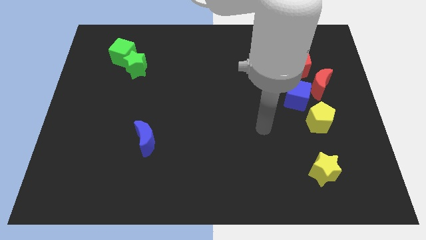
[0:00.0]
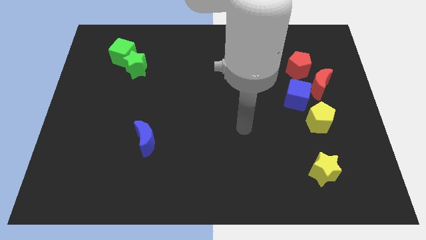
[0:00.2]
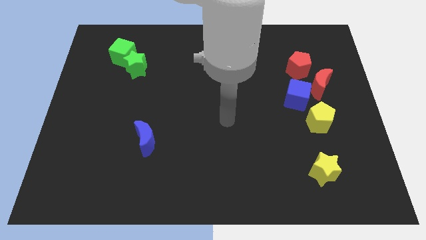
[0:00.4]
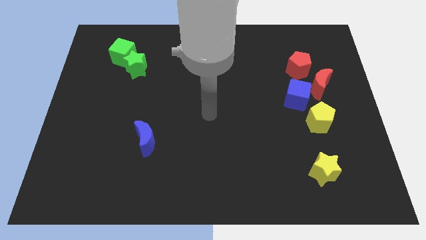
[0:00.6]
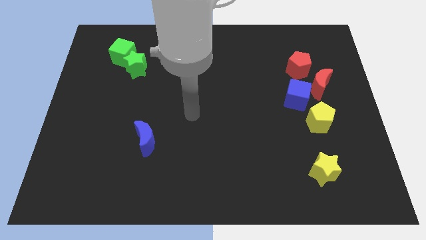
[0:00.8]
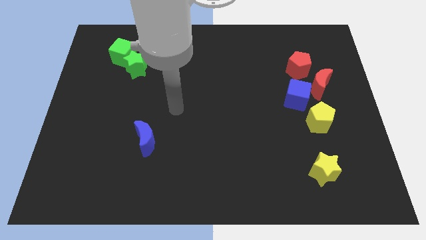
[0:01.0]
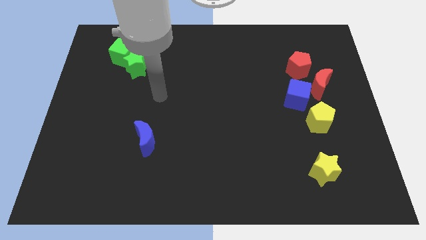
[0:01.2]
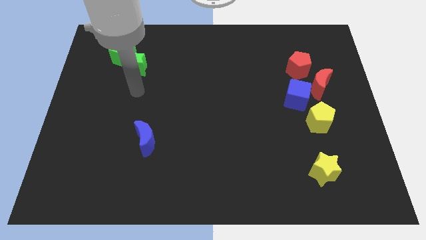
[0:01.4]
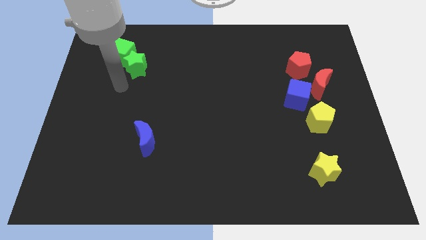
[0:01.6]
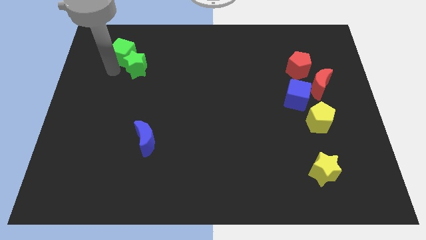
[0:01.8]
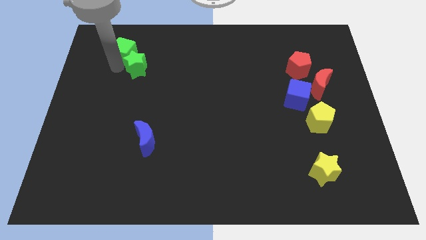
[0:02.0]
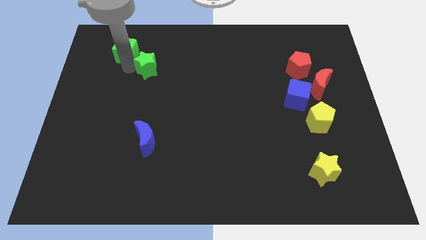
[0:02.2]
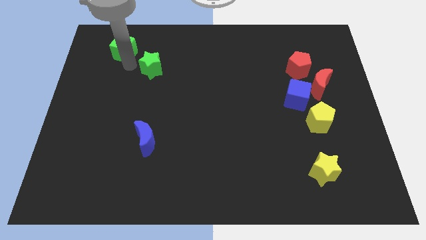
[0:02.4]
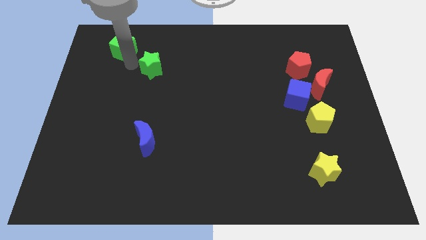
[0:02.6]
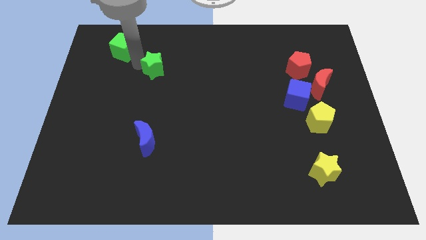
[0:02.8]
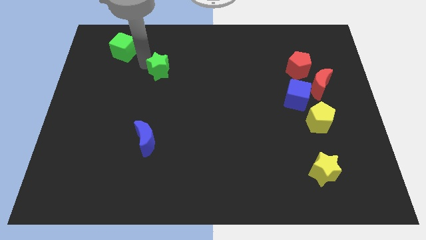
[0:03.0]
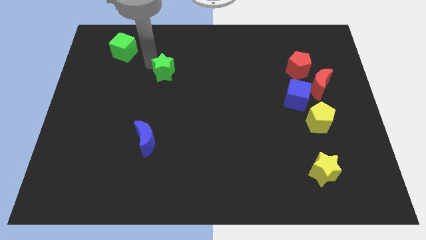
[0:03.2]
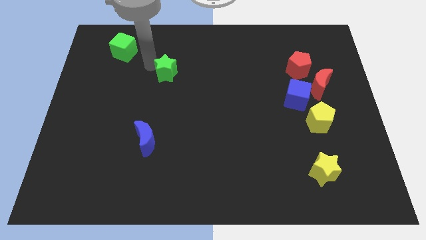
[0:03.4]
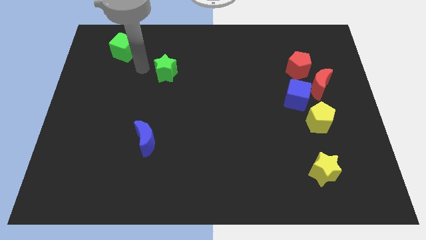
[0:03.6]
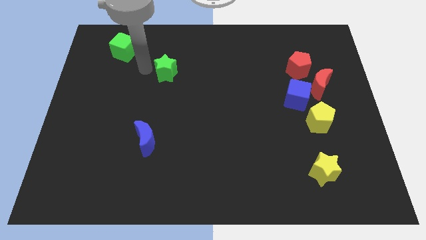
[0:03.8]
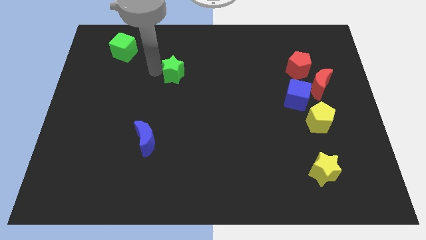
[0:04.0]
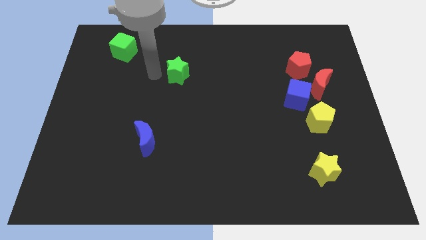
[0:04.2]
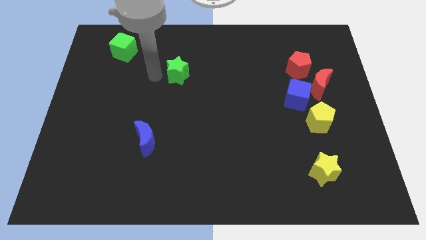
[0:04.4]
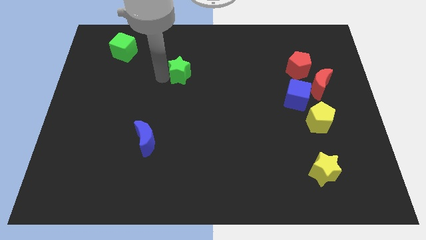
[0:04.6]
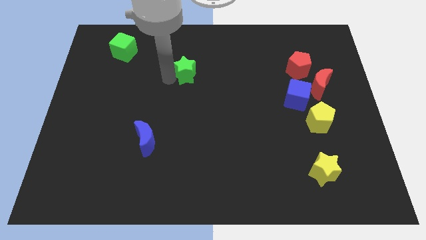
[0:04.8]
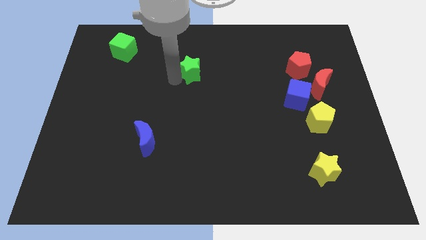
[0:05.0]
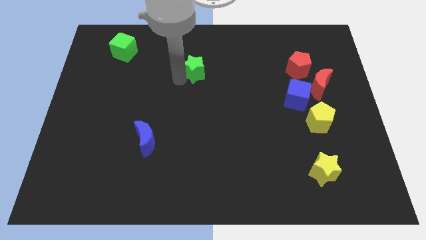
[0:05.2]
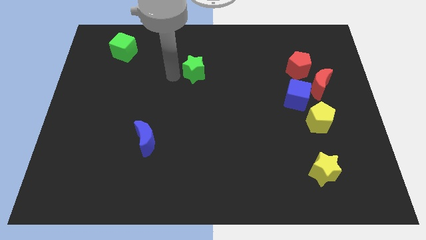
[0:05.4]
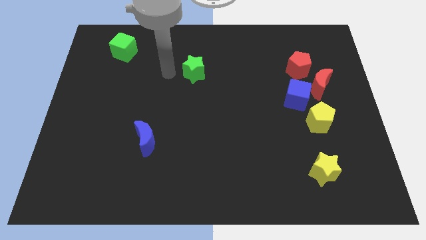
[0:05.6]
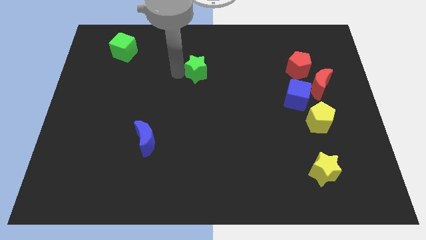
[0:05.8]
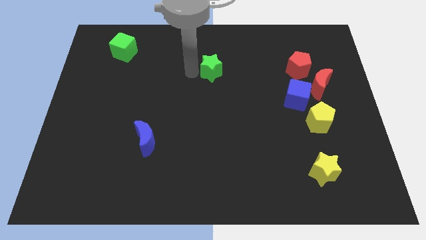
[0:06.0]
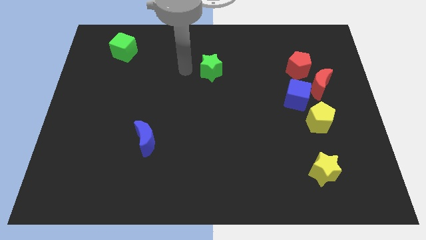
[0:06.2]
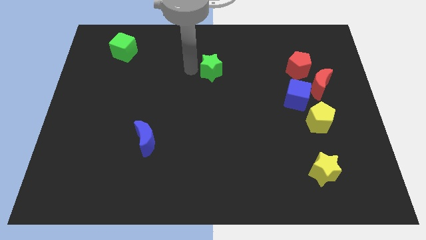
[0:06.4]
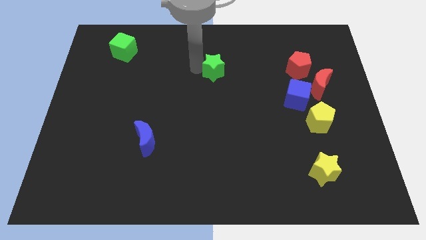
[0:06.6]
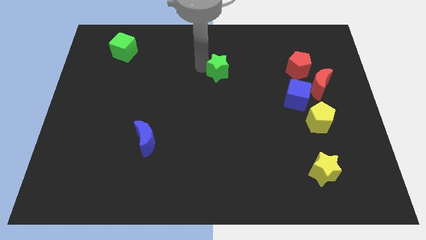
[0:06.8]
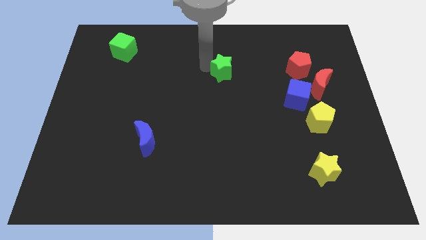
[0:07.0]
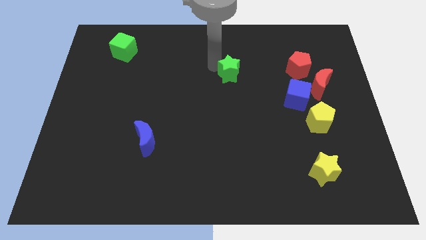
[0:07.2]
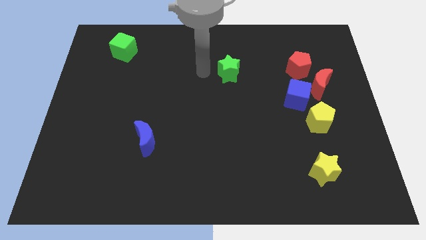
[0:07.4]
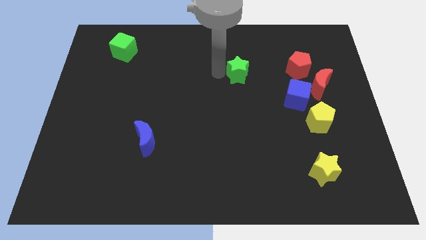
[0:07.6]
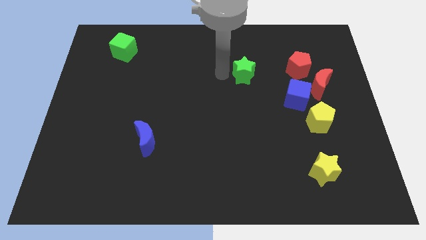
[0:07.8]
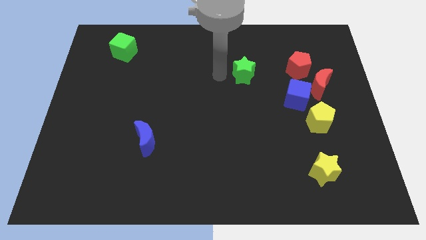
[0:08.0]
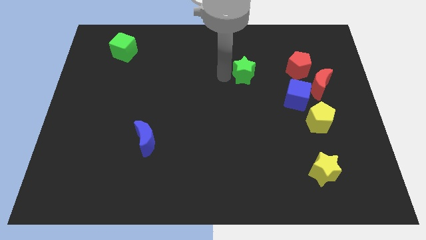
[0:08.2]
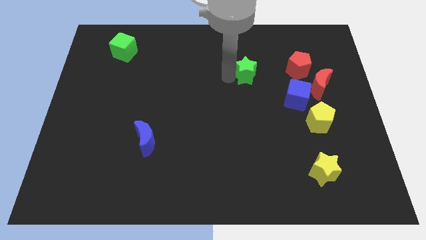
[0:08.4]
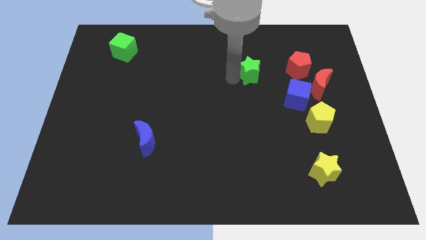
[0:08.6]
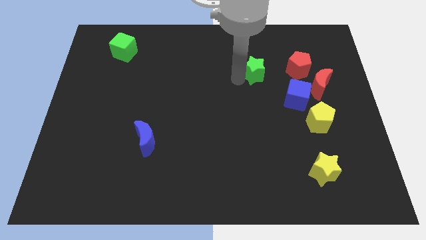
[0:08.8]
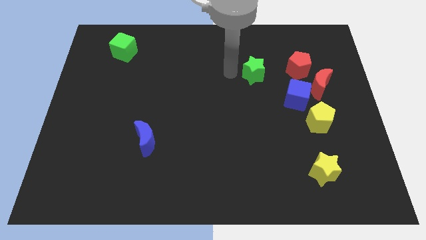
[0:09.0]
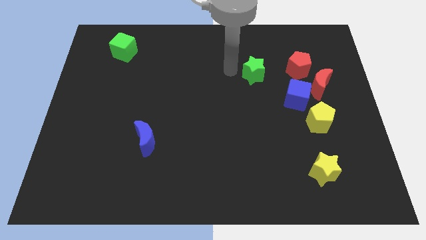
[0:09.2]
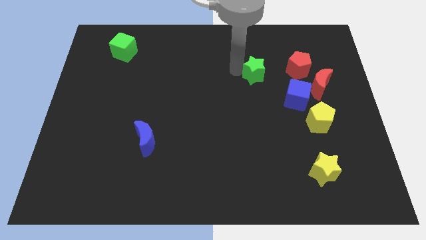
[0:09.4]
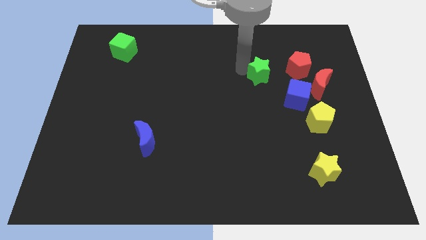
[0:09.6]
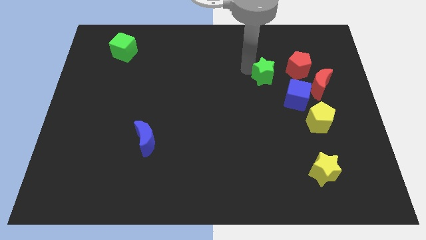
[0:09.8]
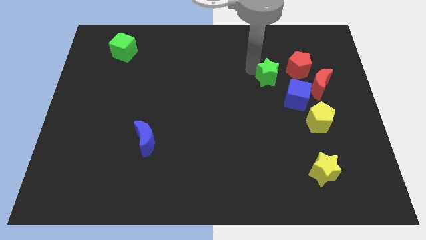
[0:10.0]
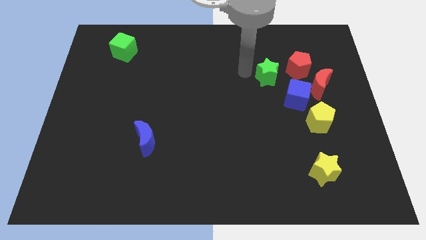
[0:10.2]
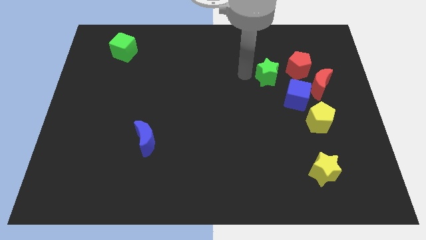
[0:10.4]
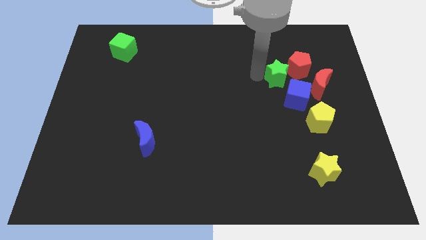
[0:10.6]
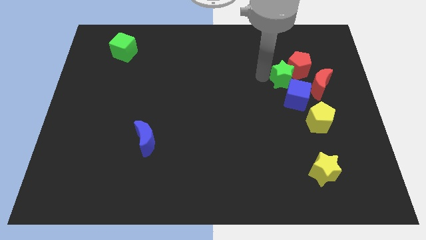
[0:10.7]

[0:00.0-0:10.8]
push the green star to the top left side of the red moon
